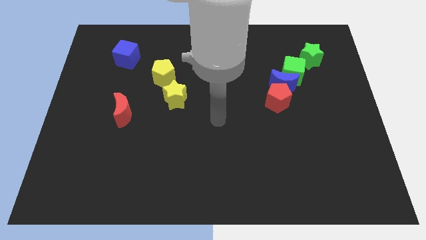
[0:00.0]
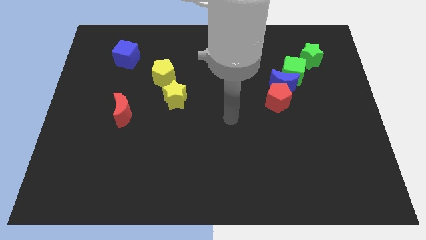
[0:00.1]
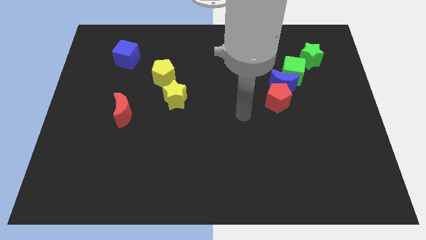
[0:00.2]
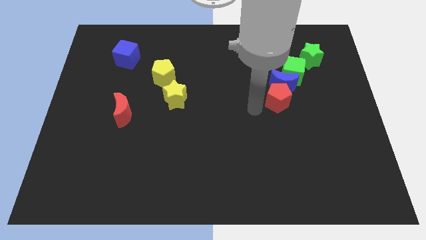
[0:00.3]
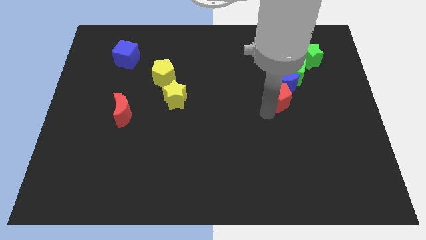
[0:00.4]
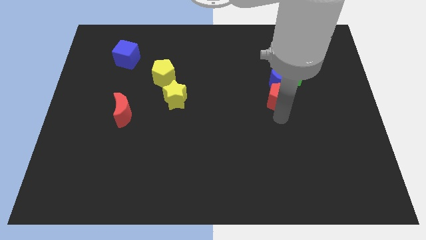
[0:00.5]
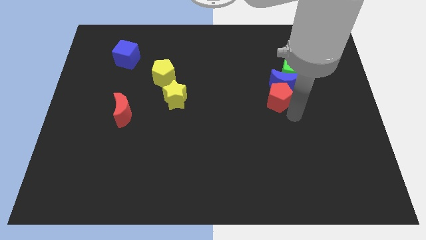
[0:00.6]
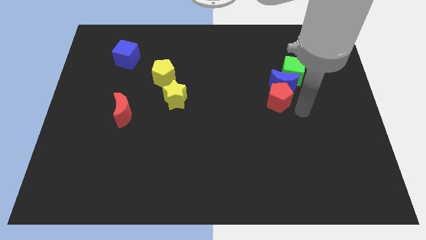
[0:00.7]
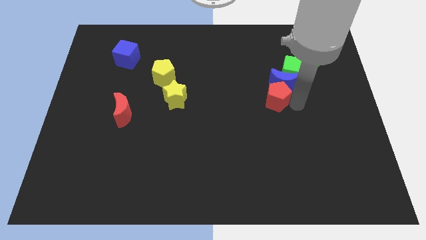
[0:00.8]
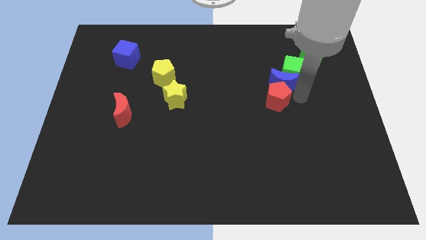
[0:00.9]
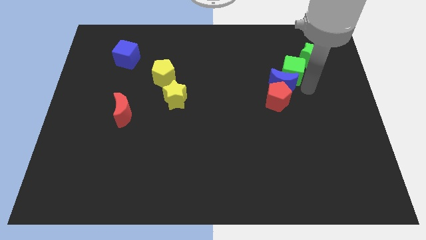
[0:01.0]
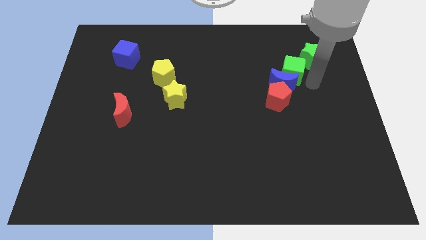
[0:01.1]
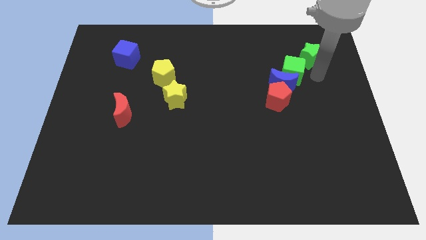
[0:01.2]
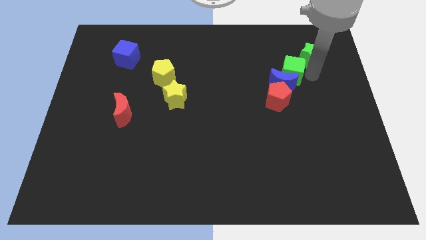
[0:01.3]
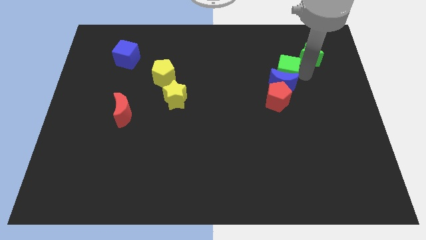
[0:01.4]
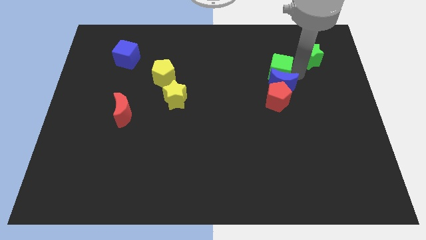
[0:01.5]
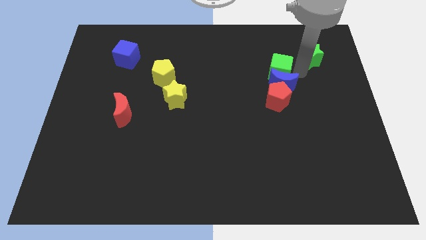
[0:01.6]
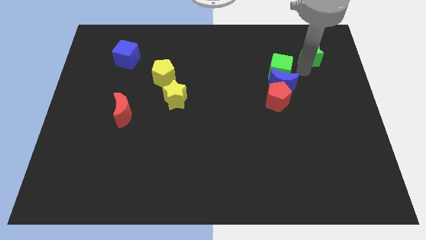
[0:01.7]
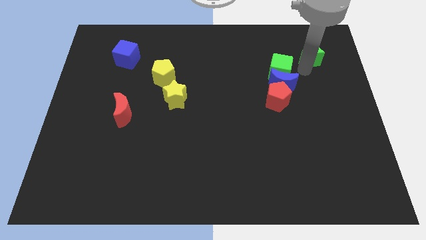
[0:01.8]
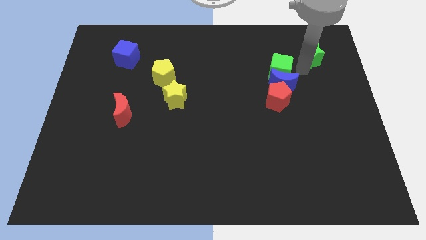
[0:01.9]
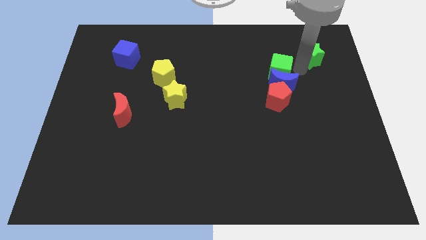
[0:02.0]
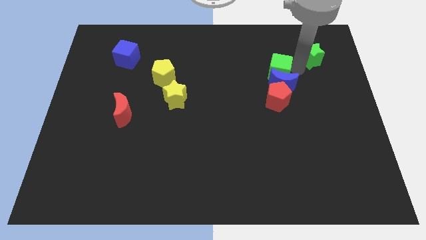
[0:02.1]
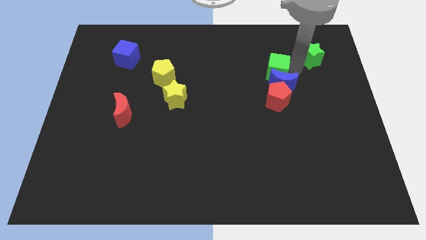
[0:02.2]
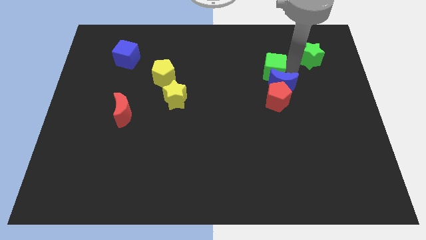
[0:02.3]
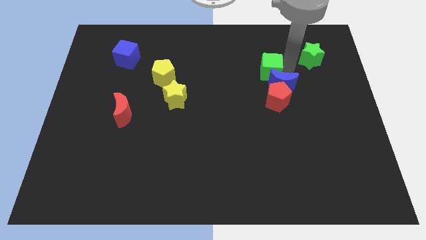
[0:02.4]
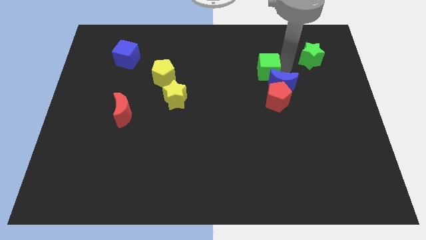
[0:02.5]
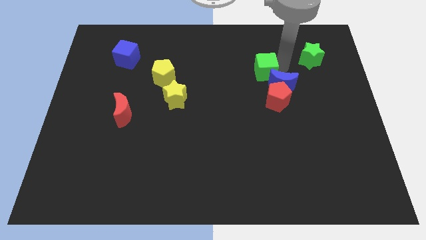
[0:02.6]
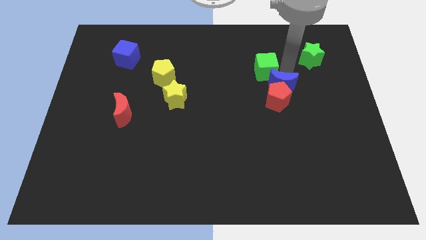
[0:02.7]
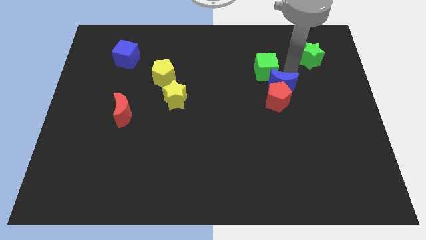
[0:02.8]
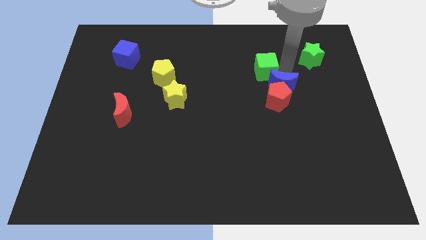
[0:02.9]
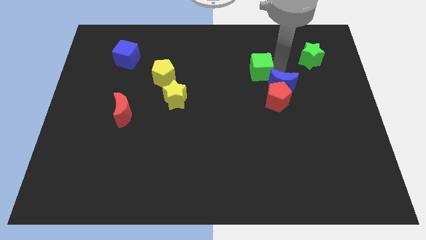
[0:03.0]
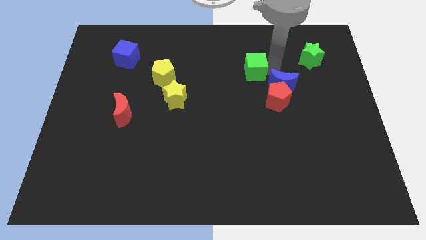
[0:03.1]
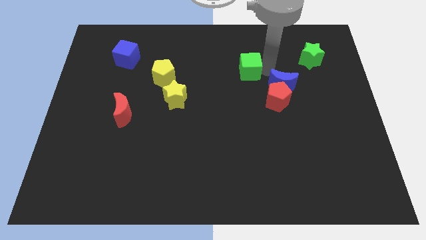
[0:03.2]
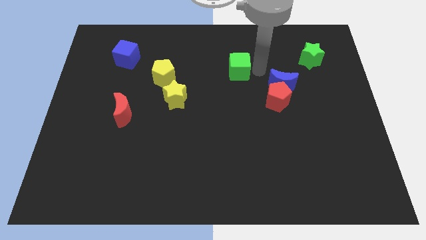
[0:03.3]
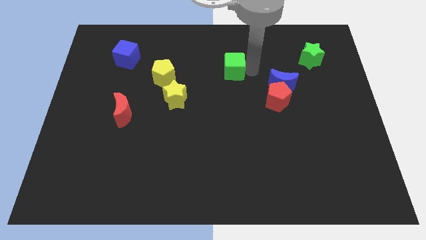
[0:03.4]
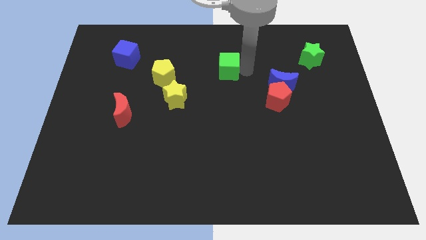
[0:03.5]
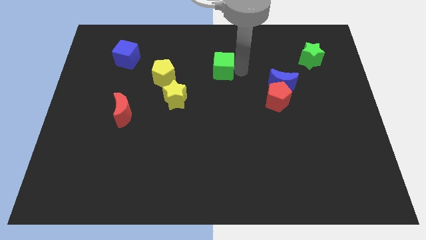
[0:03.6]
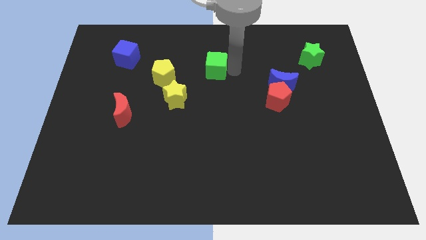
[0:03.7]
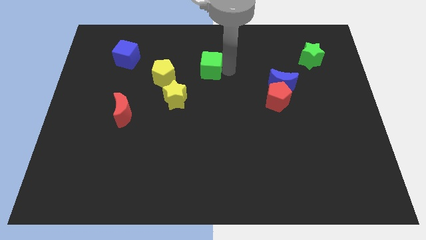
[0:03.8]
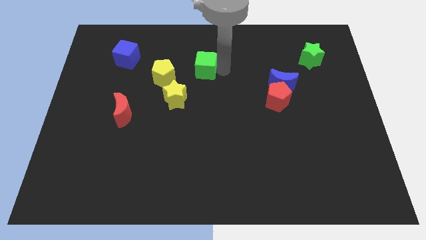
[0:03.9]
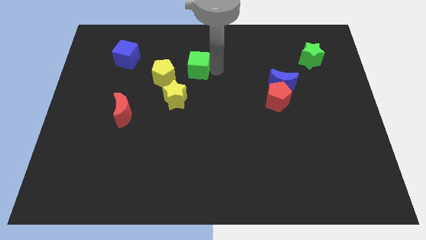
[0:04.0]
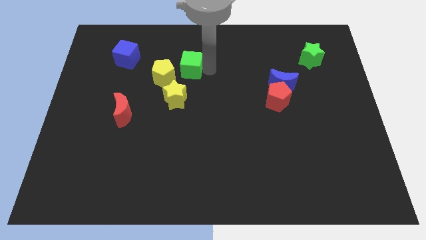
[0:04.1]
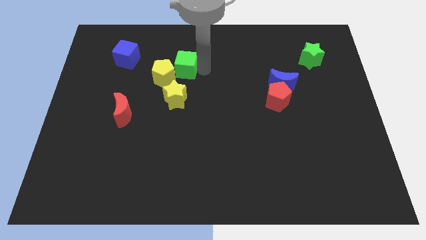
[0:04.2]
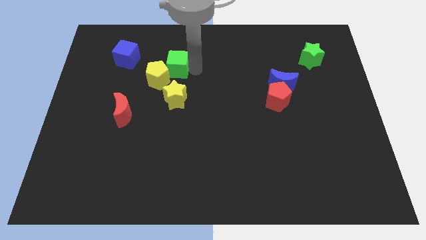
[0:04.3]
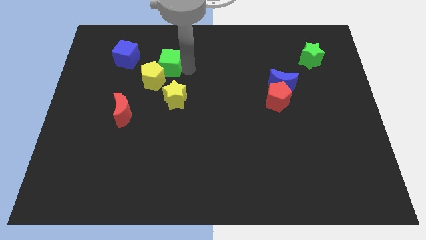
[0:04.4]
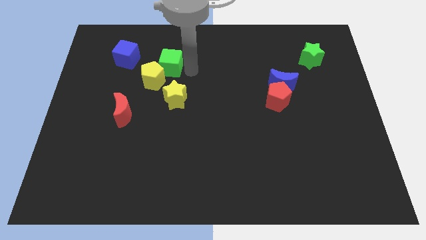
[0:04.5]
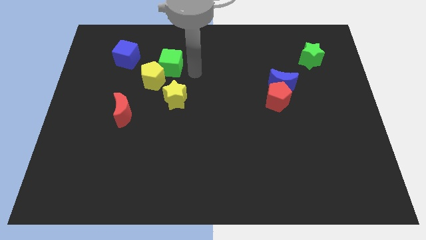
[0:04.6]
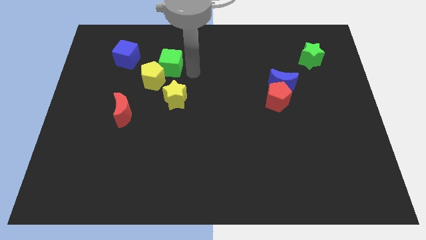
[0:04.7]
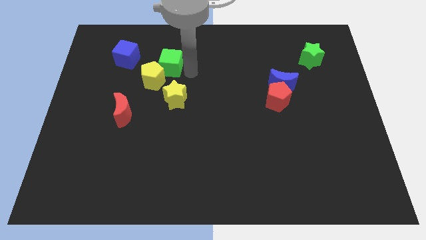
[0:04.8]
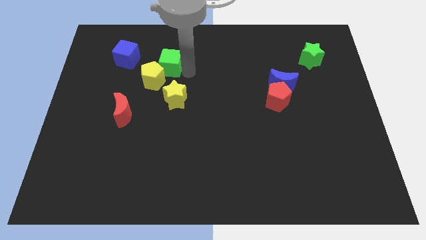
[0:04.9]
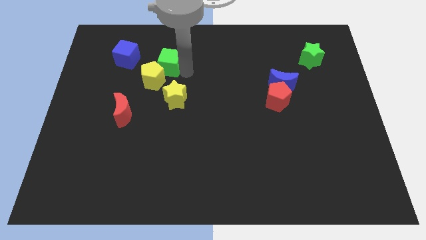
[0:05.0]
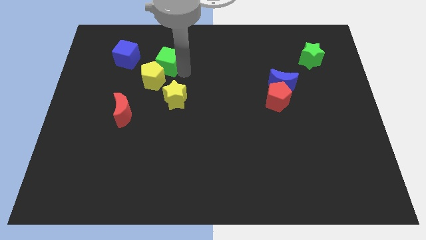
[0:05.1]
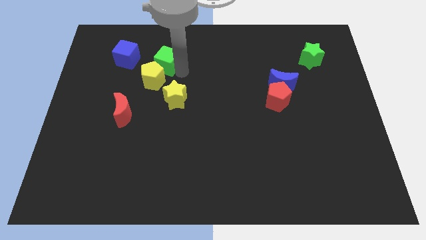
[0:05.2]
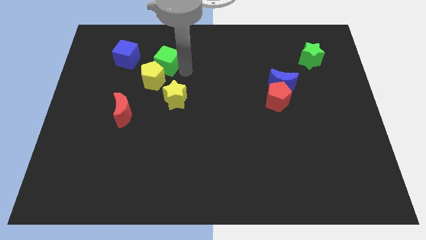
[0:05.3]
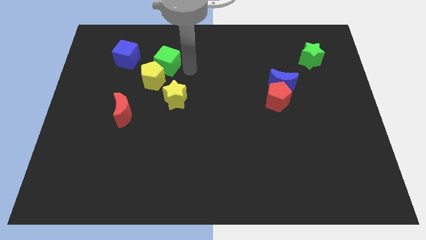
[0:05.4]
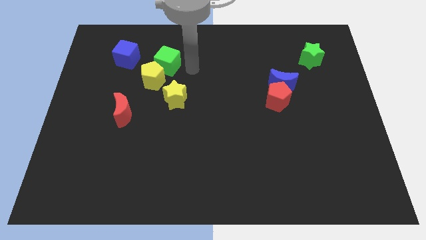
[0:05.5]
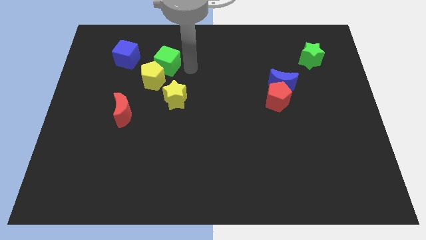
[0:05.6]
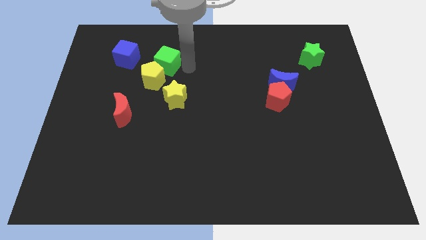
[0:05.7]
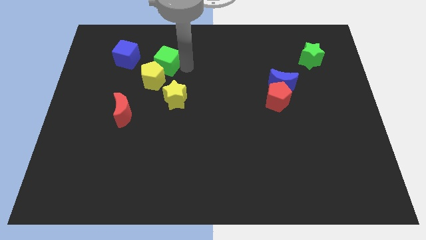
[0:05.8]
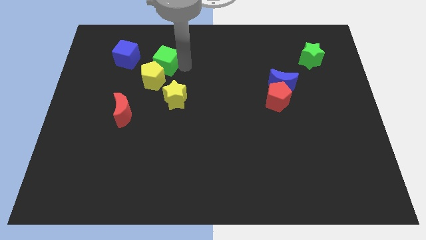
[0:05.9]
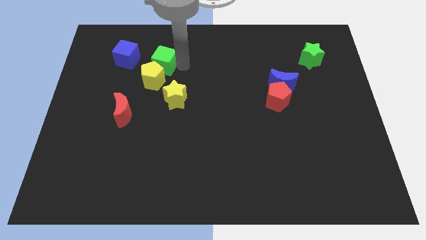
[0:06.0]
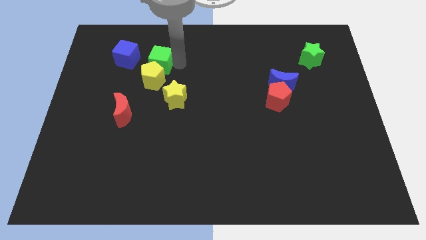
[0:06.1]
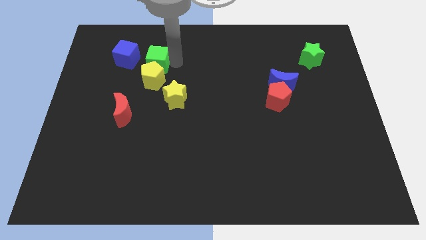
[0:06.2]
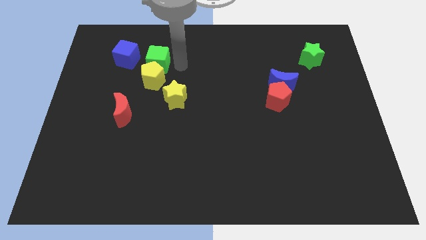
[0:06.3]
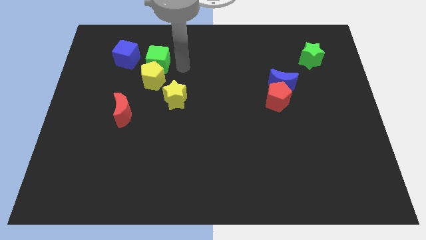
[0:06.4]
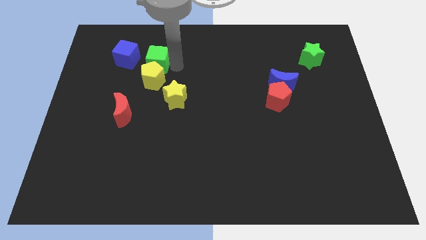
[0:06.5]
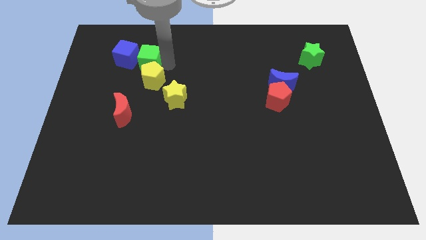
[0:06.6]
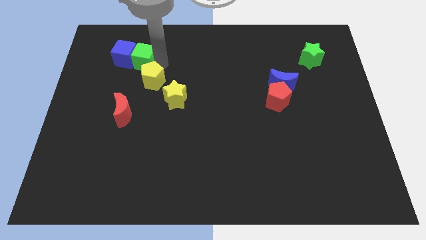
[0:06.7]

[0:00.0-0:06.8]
push the green cube next to the blue cube

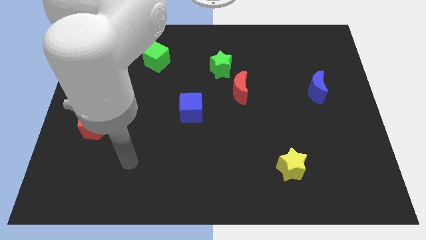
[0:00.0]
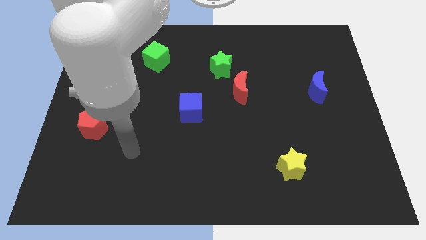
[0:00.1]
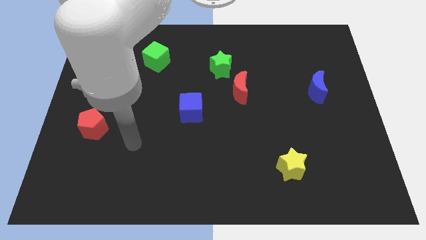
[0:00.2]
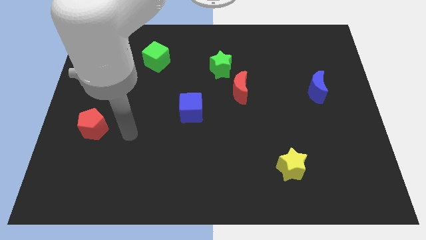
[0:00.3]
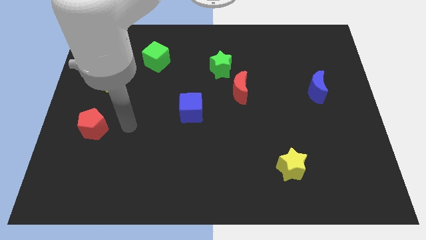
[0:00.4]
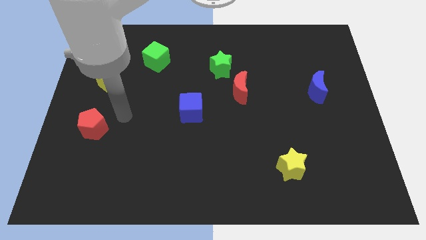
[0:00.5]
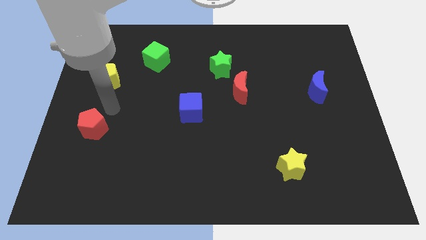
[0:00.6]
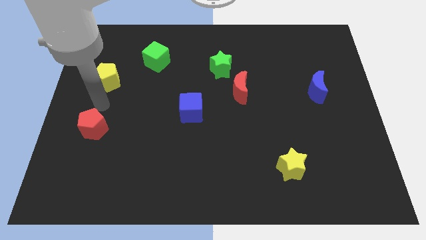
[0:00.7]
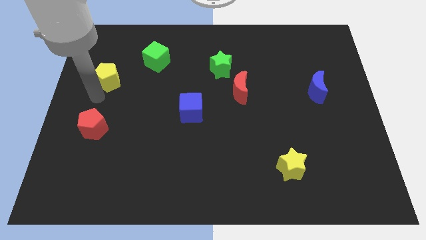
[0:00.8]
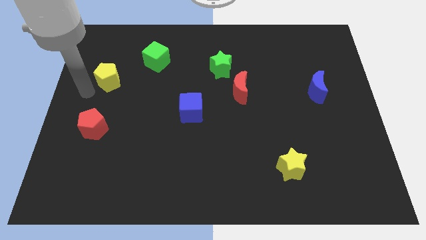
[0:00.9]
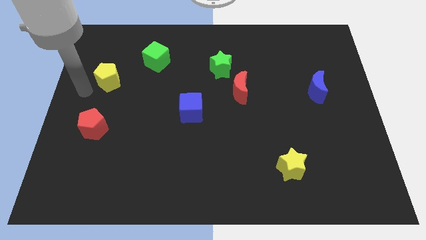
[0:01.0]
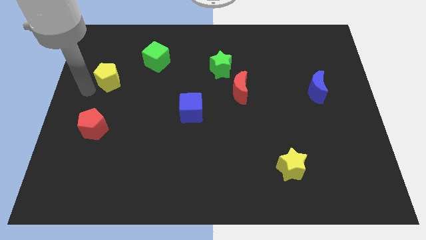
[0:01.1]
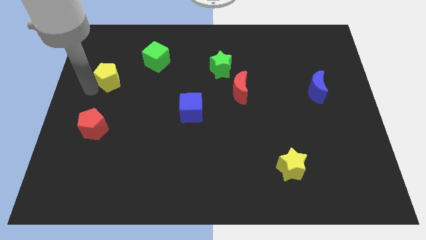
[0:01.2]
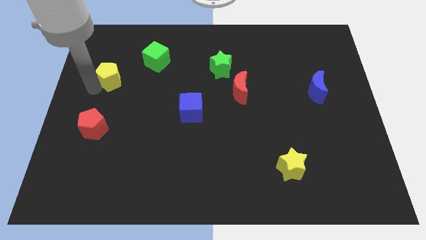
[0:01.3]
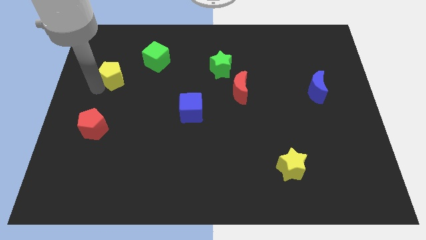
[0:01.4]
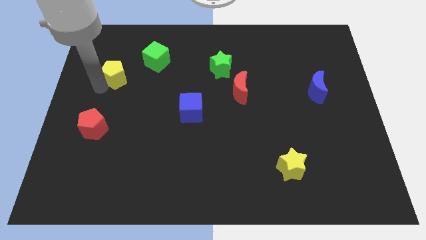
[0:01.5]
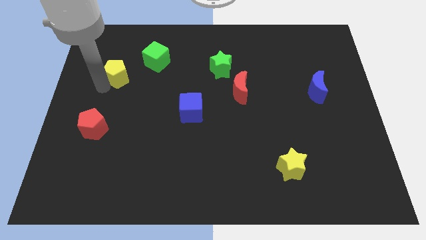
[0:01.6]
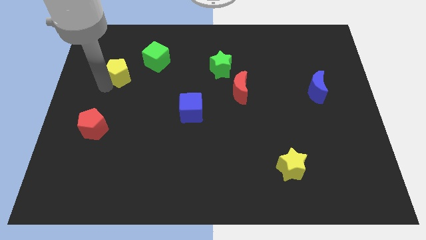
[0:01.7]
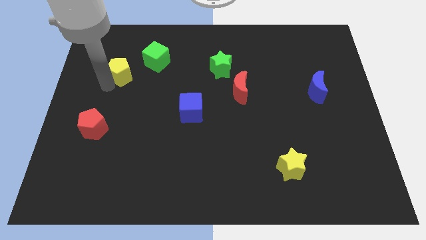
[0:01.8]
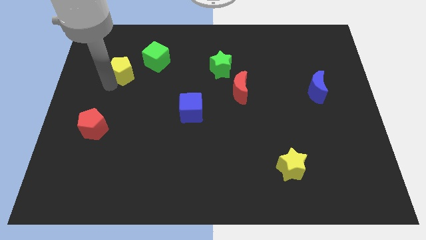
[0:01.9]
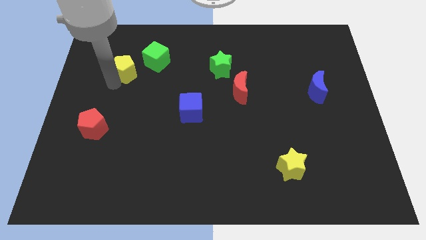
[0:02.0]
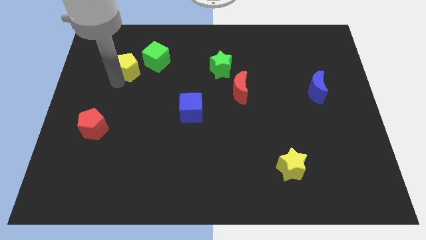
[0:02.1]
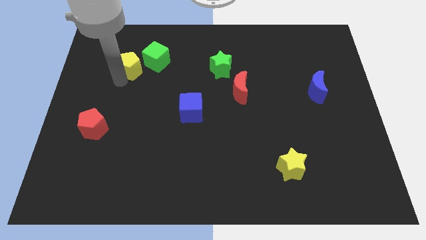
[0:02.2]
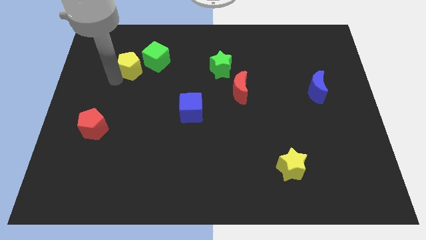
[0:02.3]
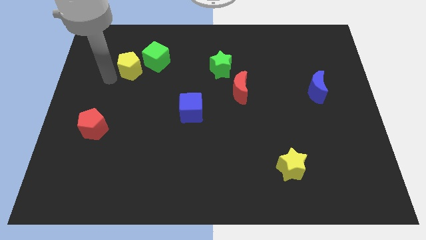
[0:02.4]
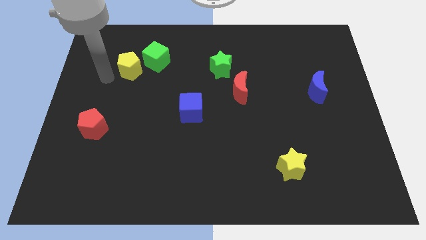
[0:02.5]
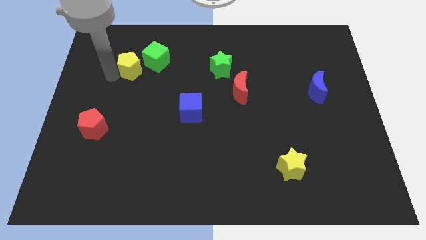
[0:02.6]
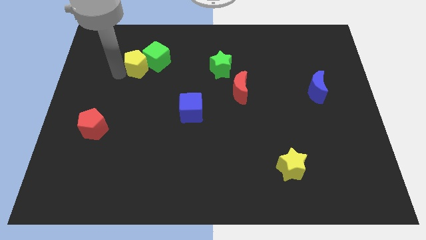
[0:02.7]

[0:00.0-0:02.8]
push the yellow pentagon close to the green cube
